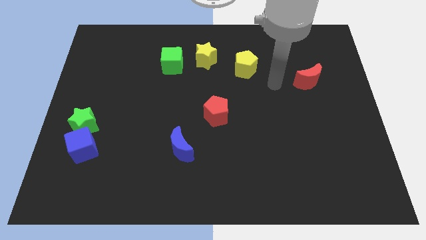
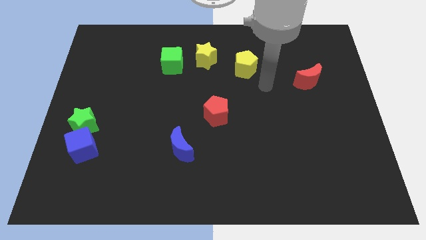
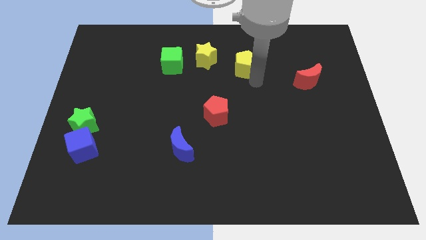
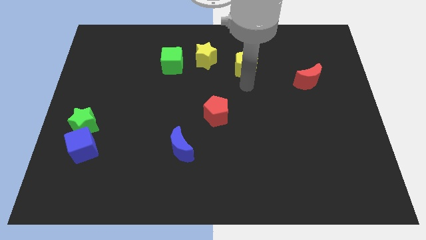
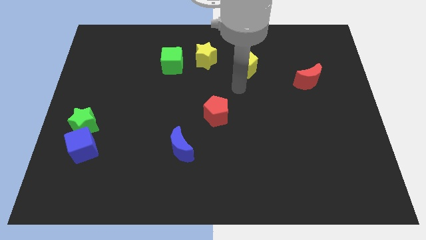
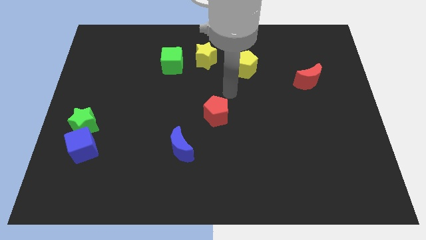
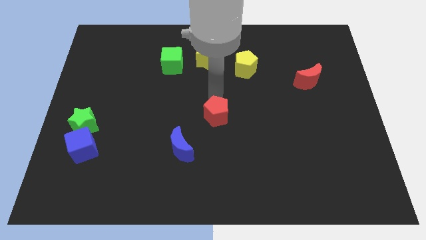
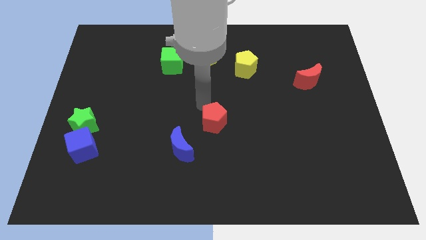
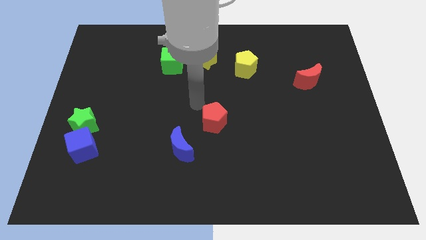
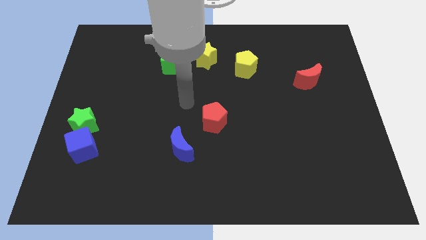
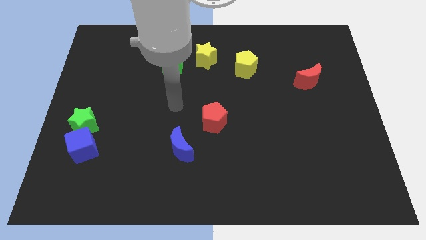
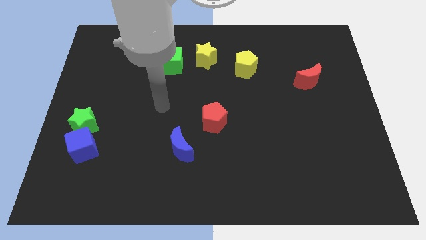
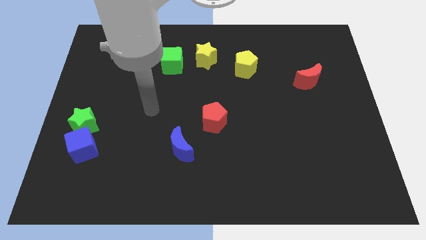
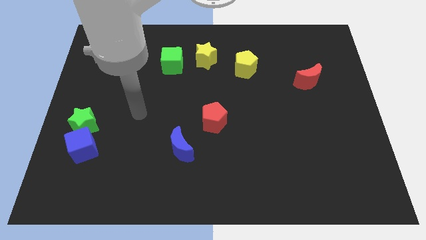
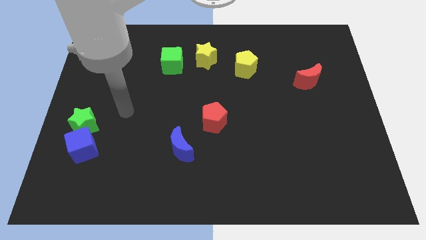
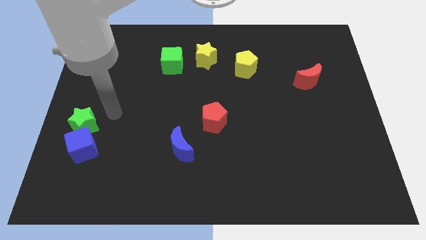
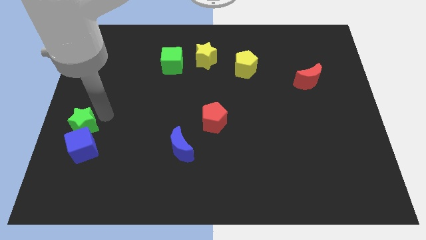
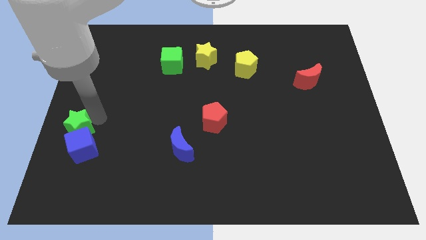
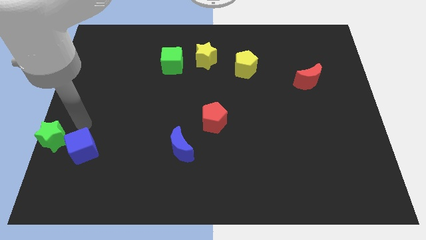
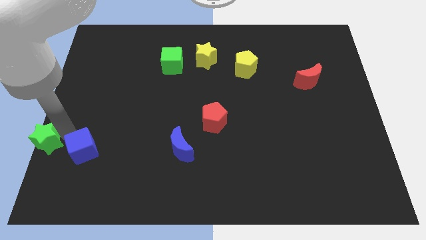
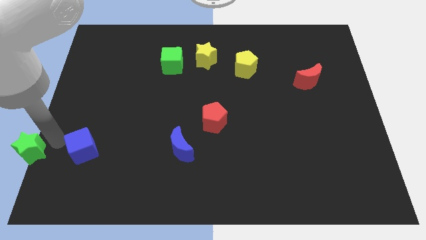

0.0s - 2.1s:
move the blue cube away from the green star

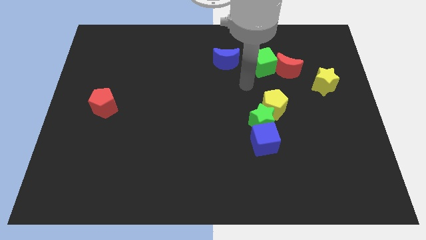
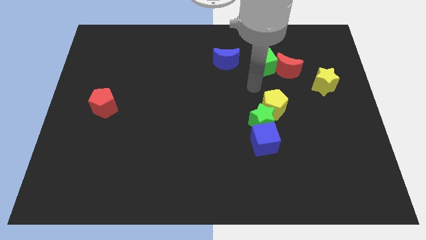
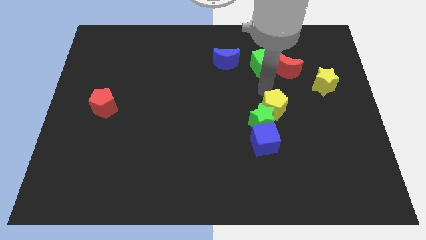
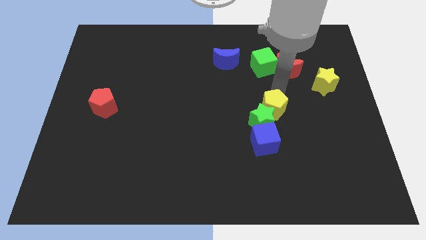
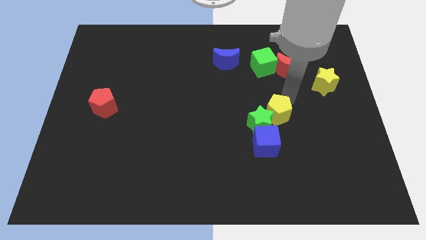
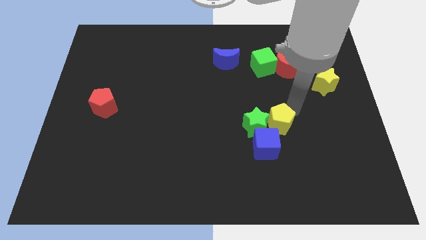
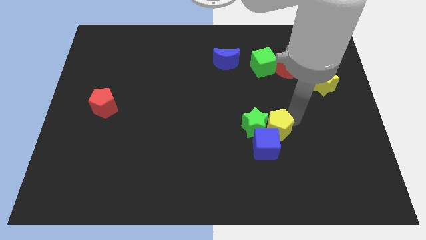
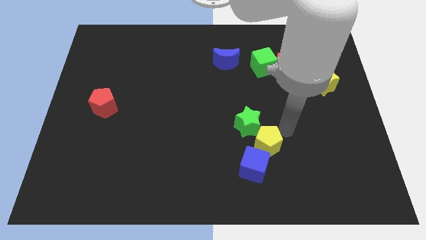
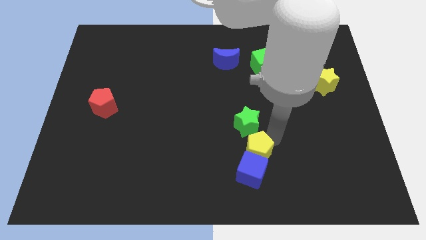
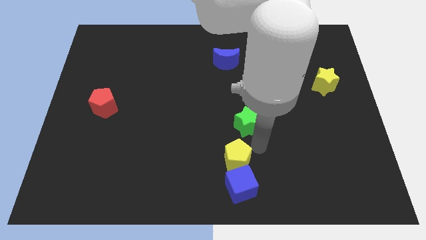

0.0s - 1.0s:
separate the green star from the blue cube and yellow pentagon

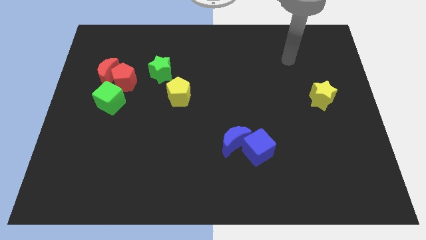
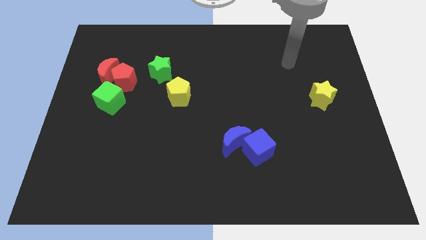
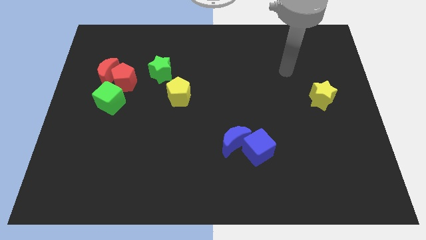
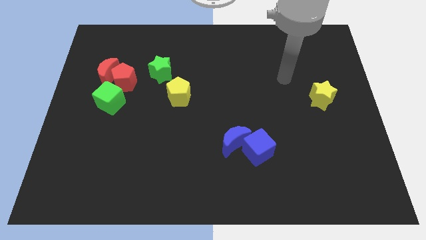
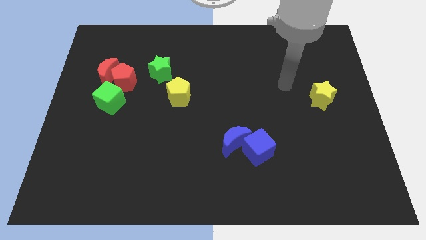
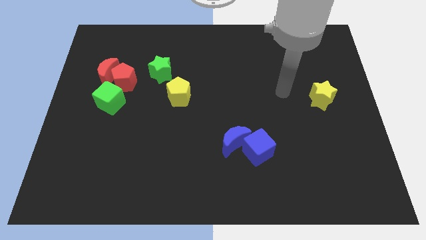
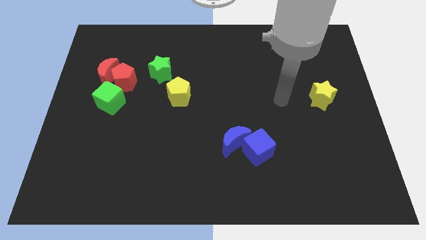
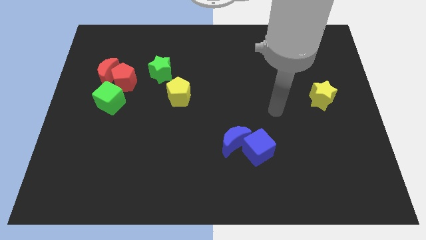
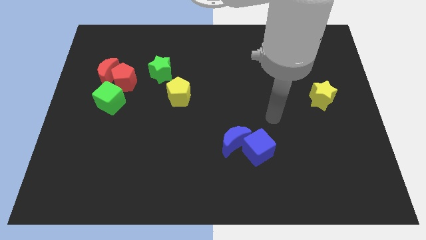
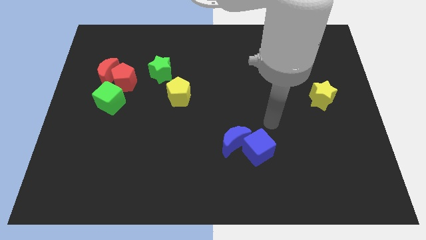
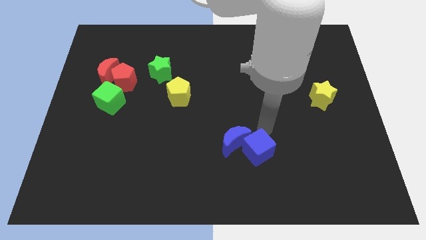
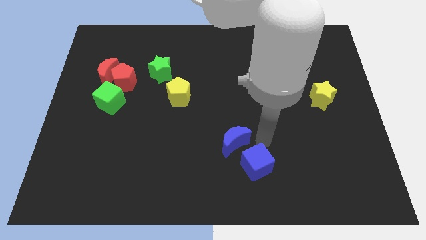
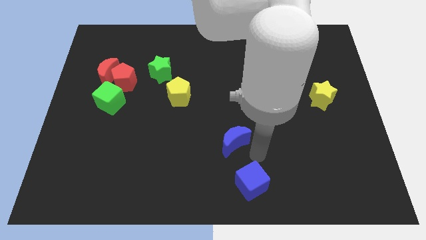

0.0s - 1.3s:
move the blue moon away from the blue cube

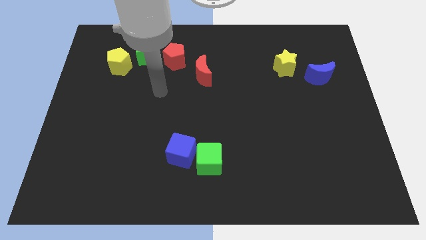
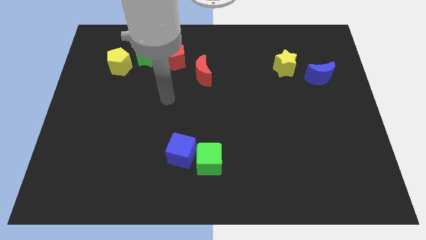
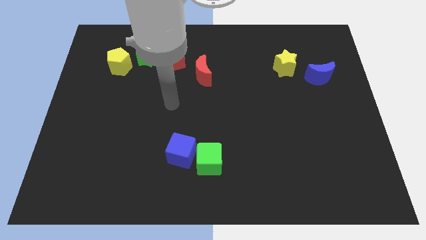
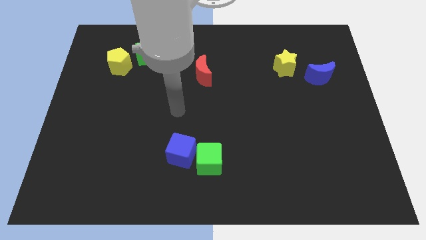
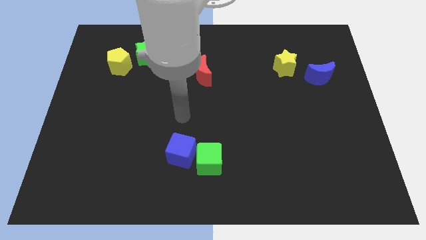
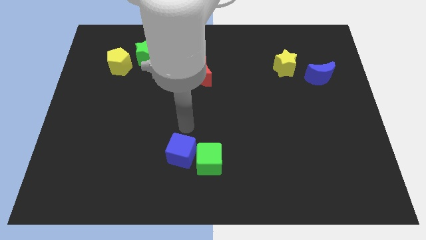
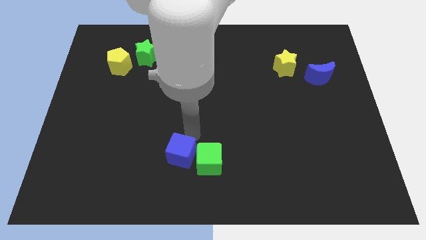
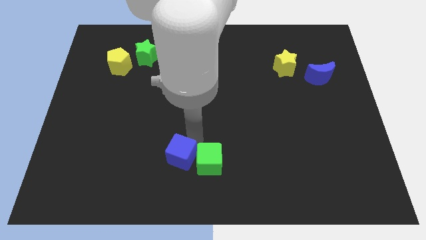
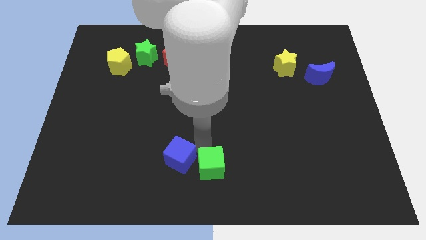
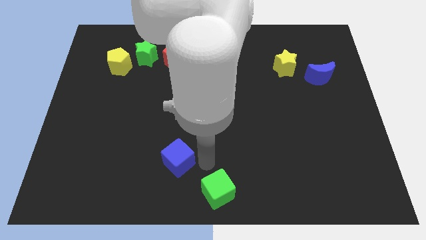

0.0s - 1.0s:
separate the blue cube from the green cube

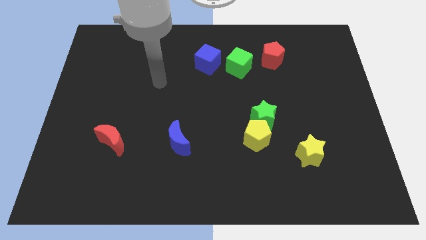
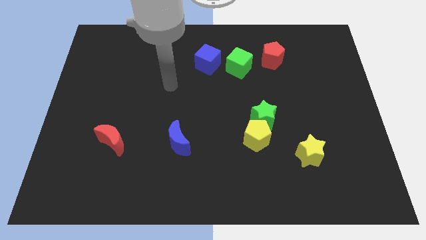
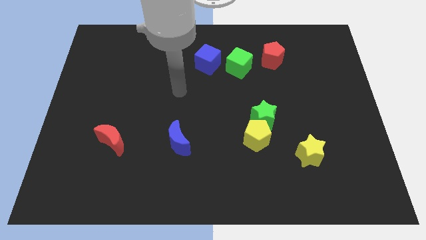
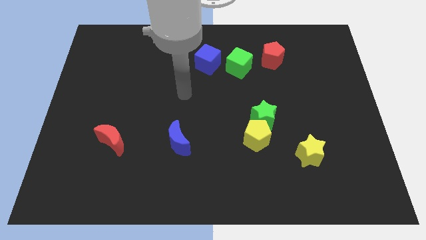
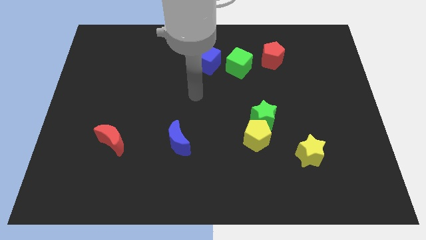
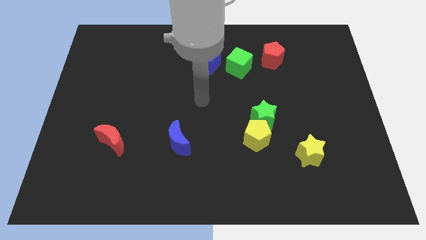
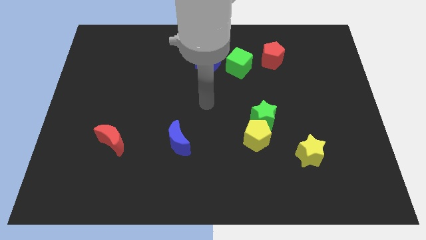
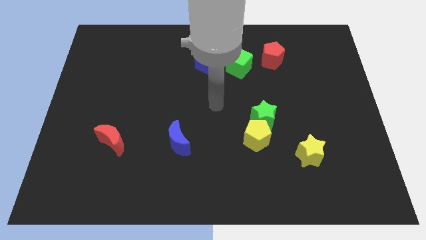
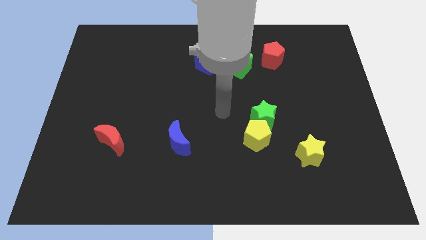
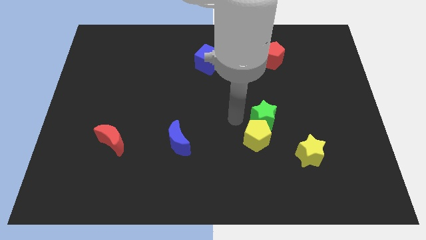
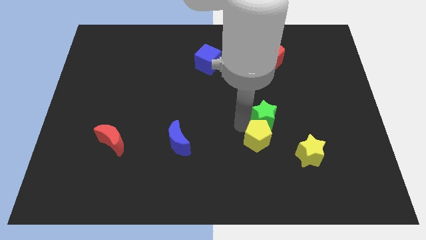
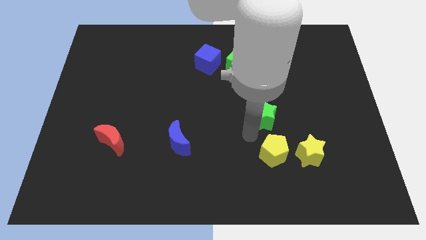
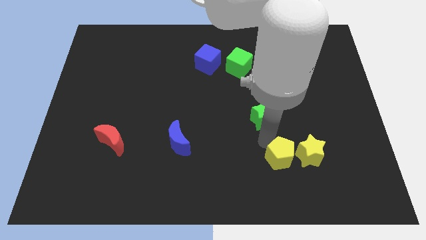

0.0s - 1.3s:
pull the green star apart from the yellow pentagon

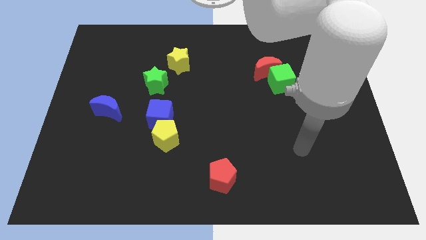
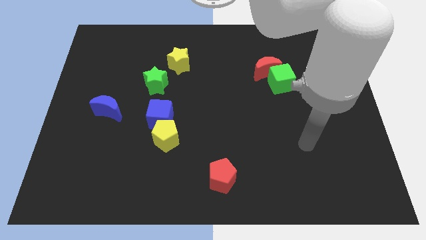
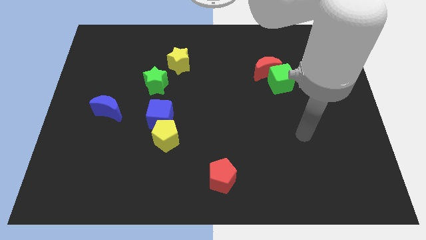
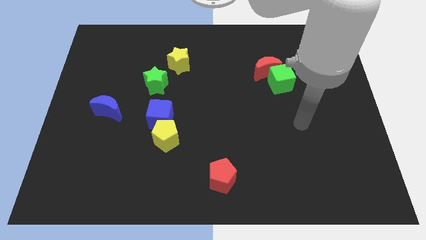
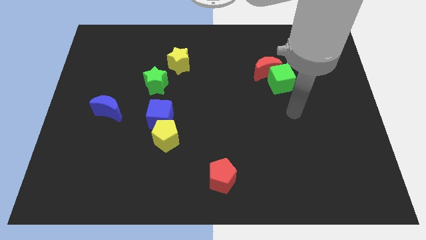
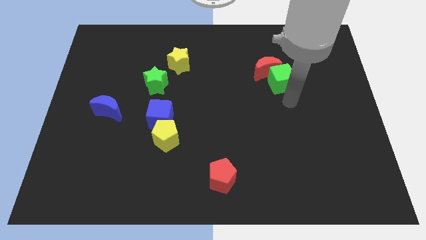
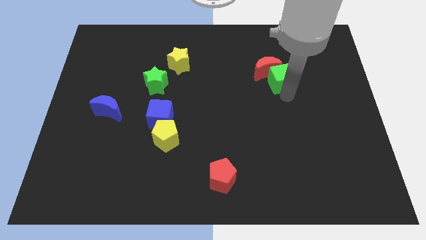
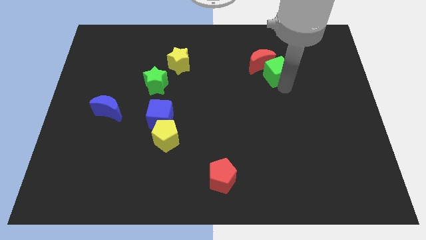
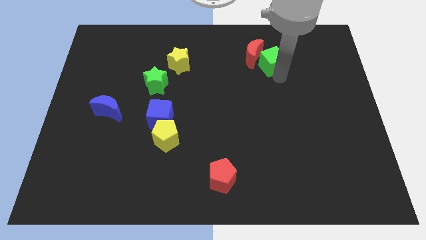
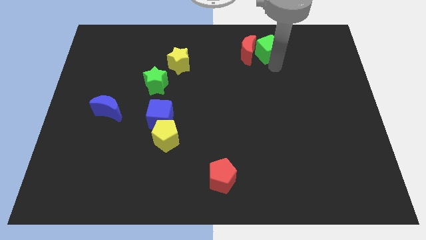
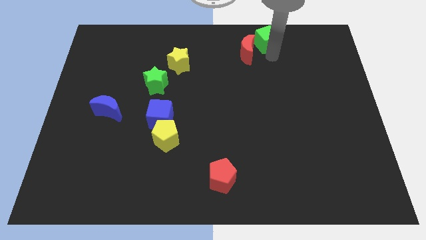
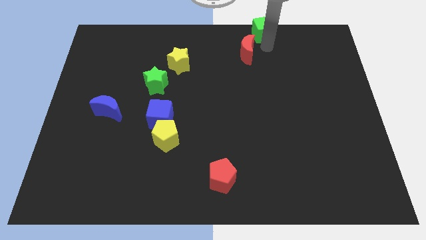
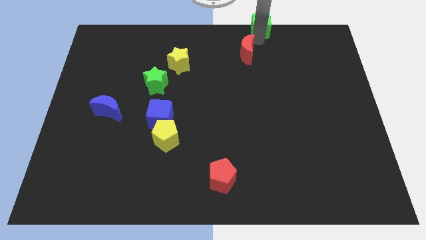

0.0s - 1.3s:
pull the red moon apart from the green cube

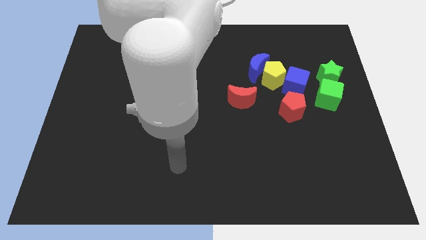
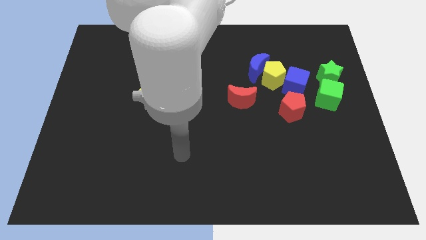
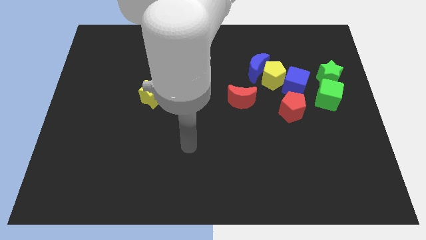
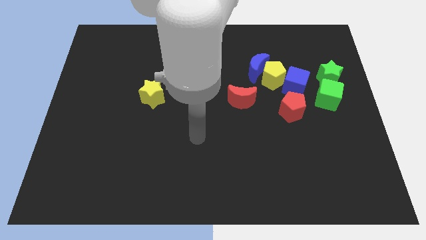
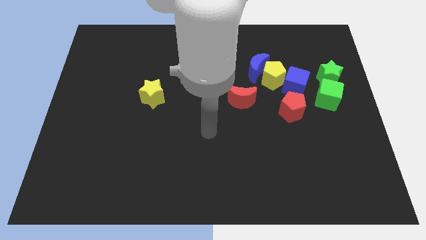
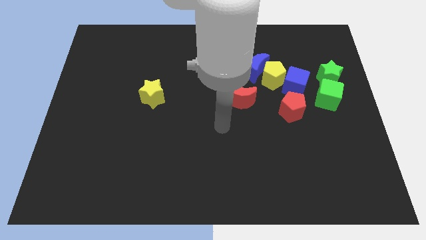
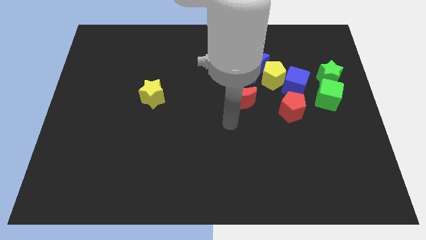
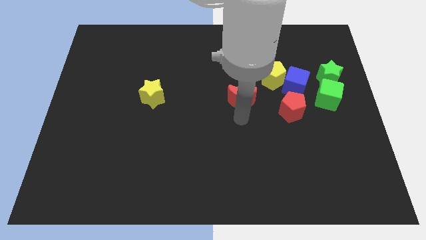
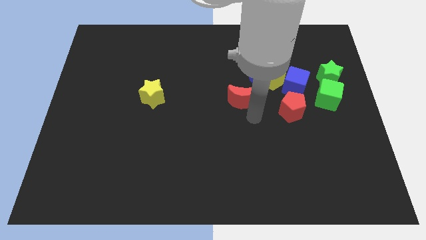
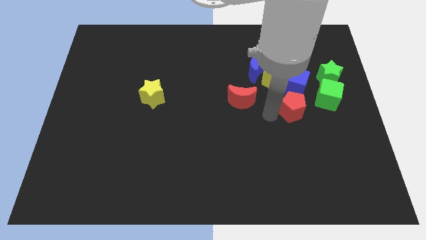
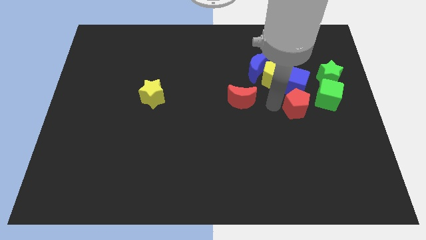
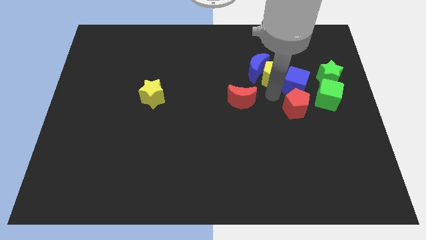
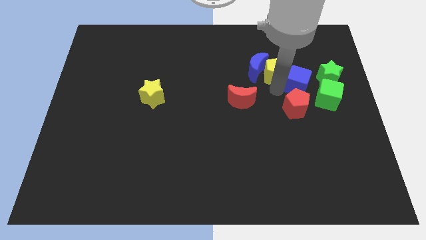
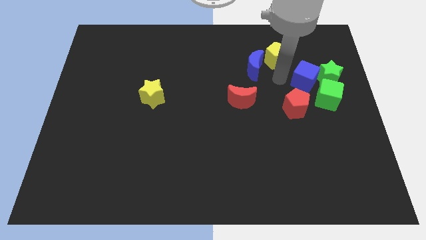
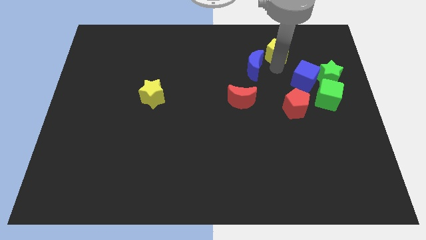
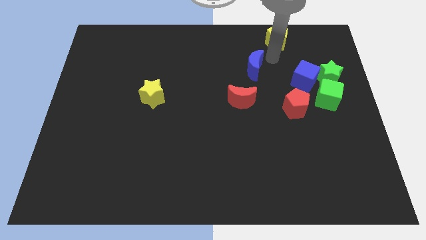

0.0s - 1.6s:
move the blue moon away from the yellow pentagon
